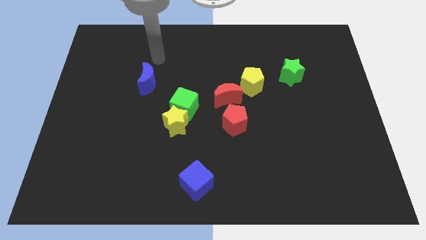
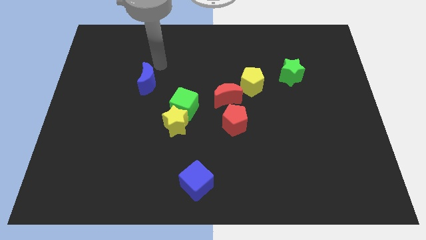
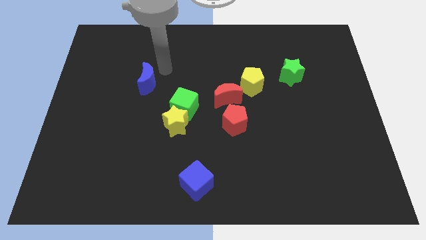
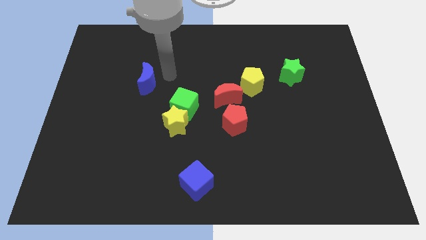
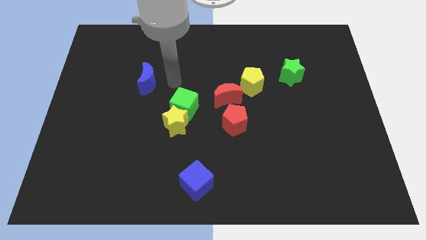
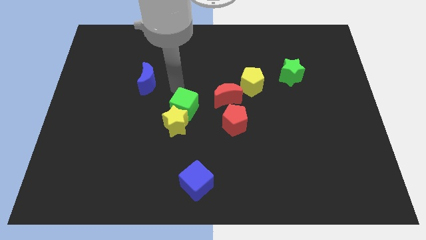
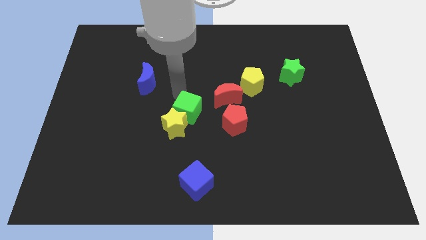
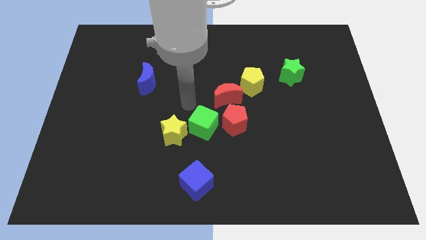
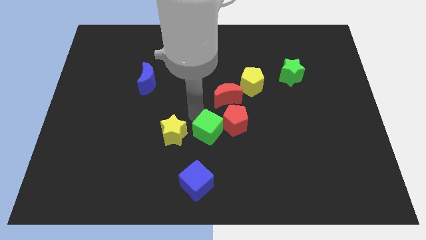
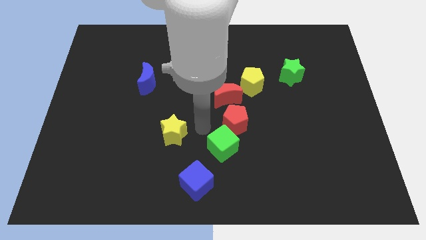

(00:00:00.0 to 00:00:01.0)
move the yellow star away from the green cube

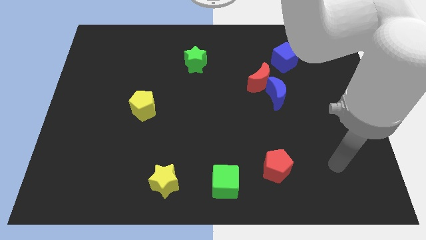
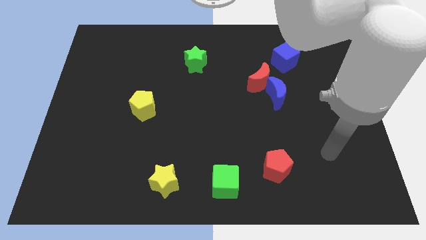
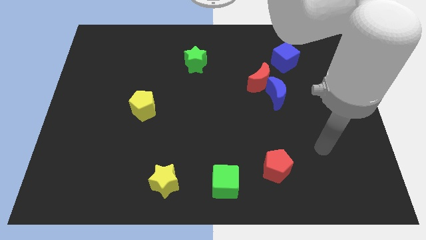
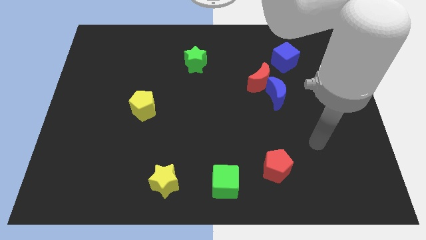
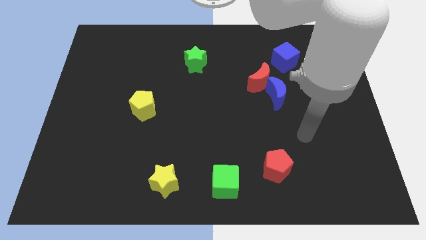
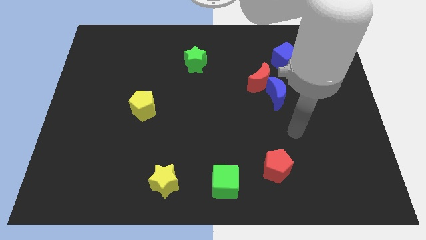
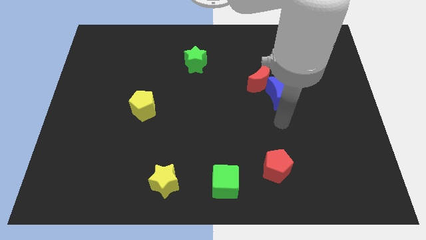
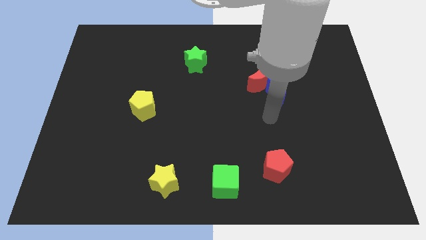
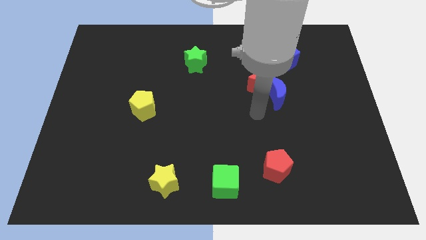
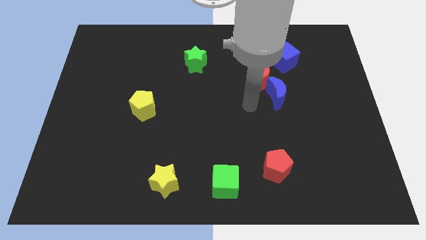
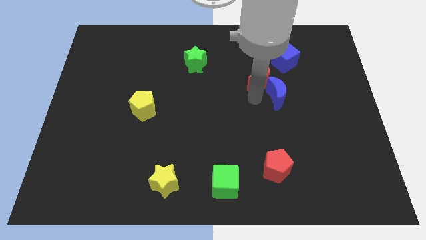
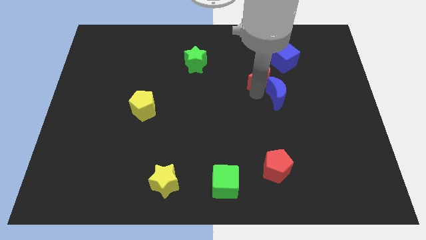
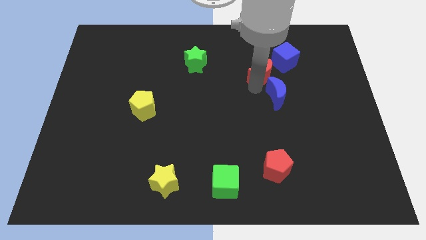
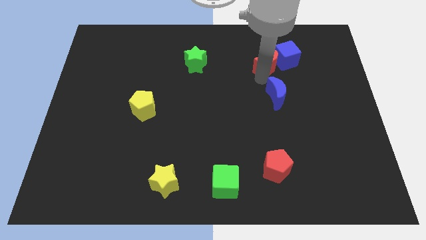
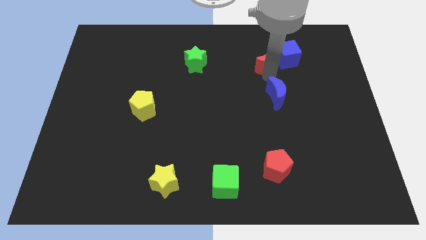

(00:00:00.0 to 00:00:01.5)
pull the blue moon apart from the red moon

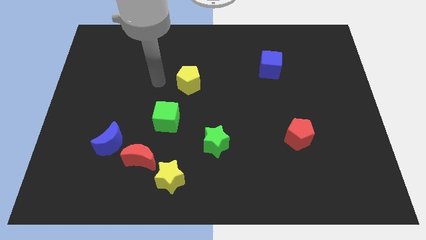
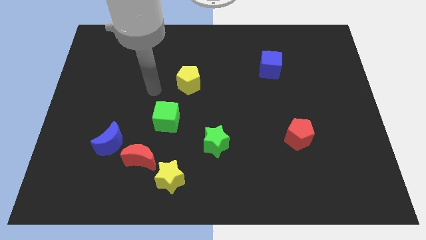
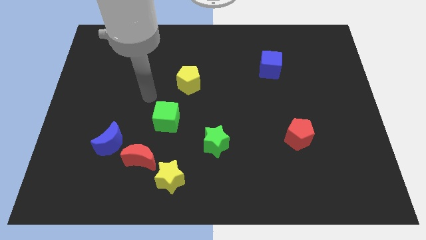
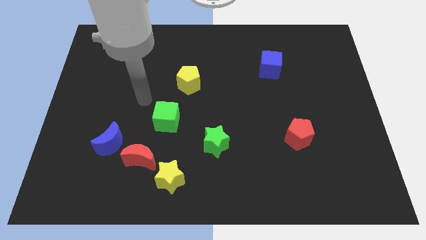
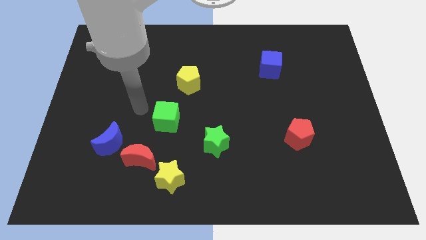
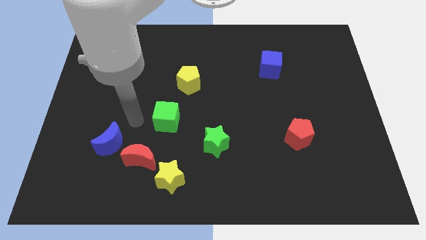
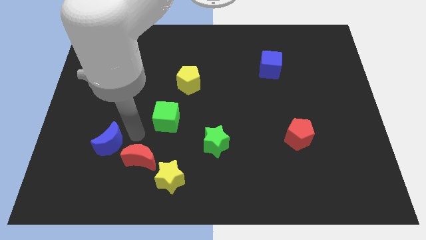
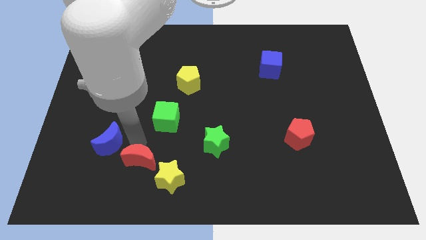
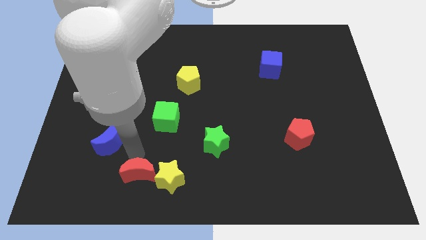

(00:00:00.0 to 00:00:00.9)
separate the blue moon from the red moon

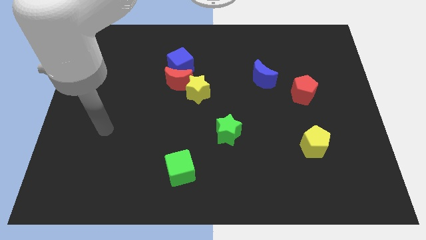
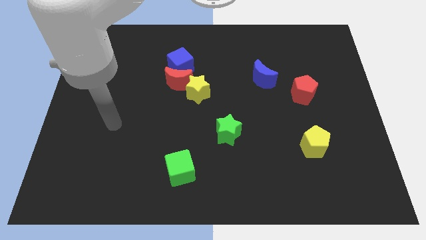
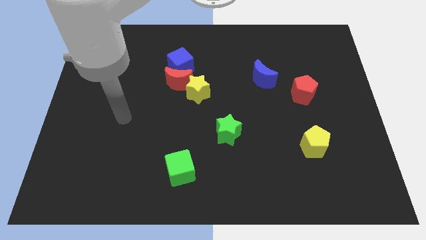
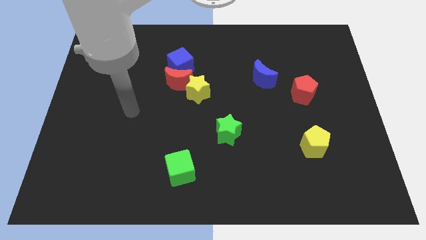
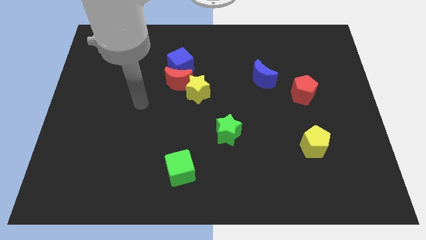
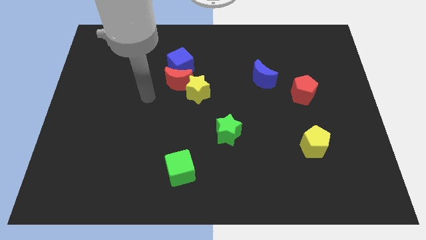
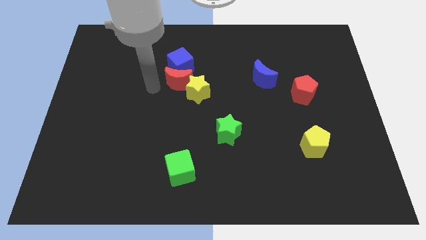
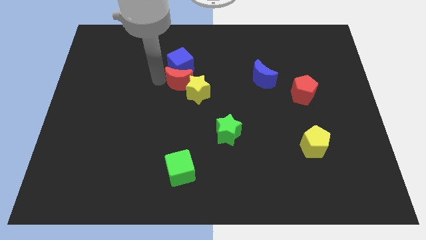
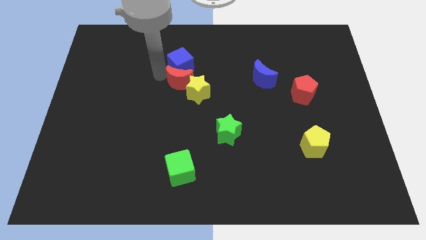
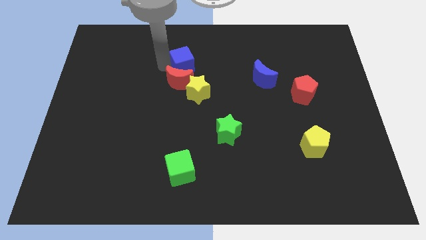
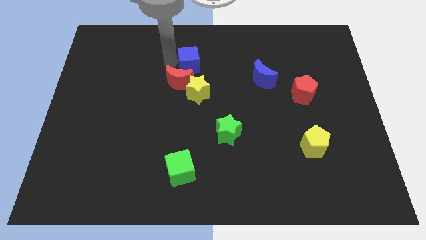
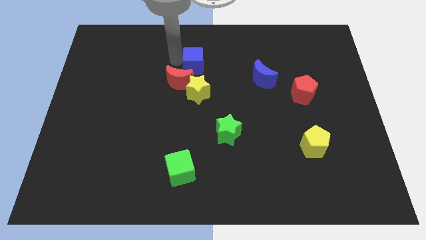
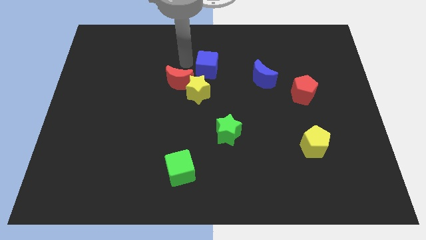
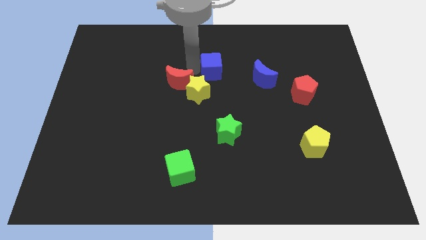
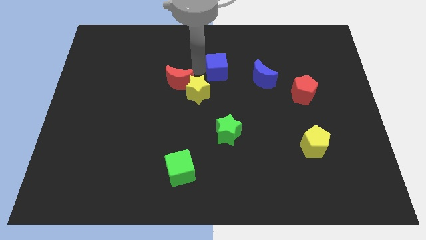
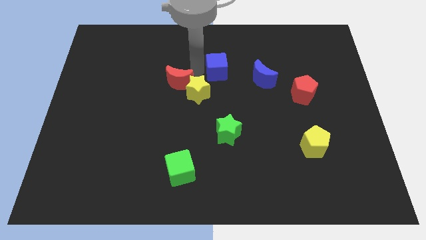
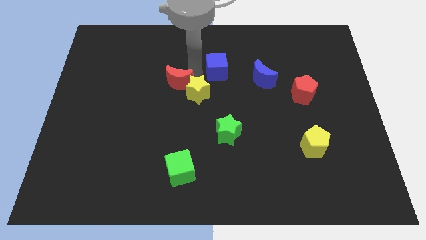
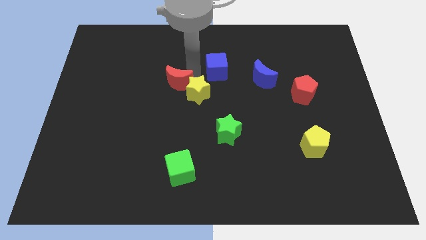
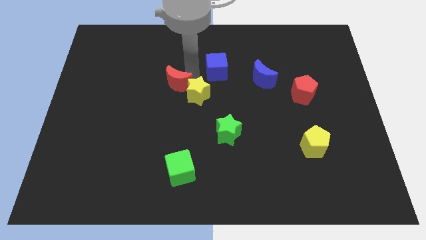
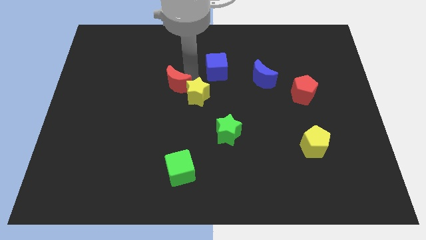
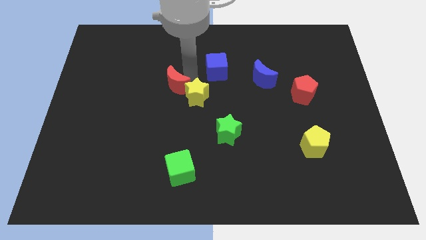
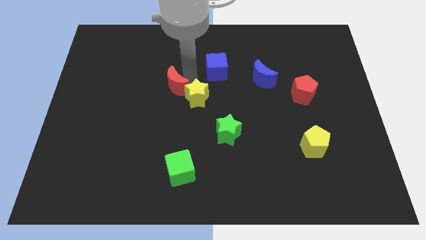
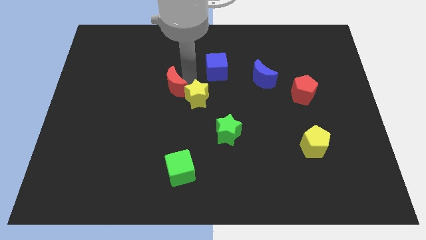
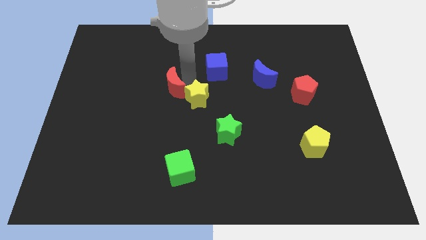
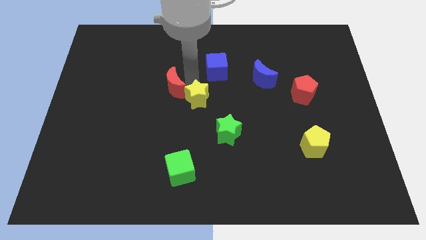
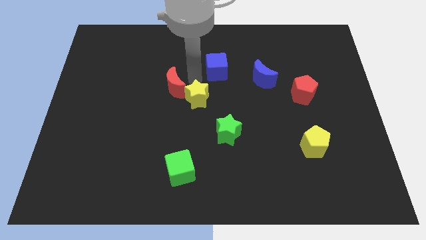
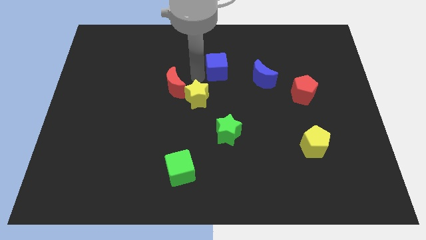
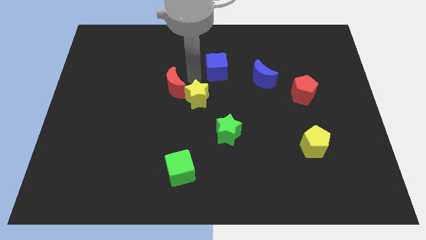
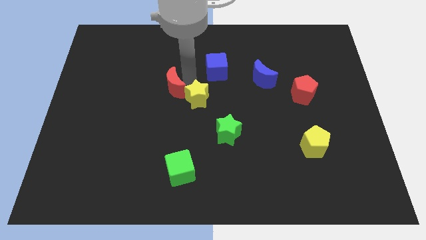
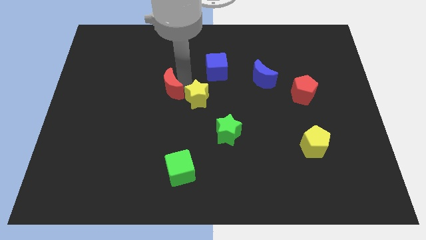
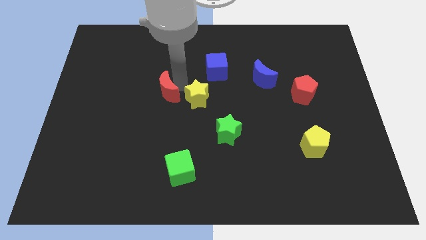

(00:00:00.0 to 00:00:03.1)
separate the red moon from the blue cube and yellow star

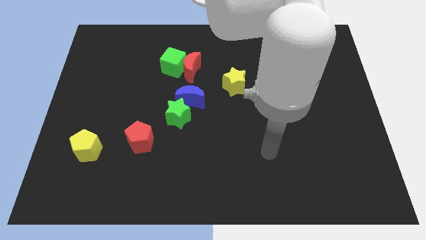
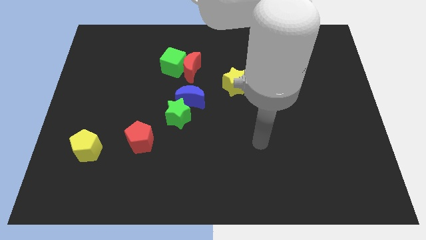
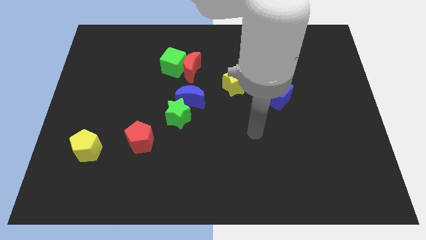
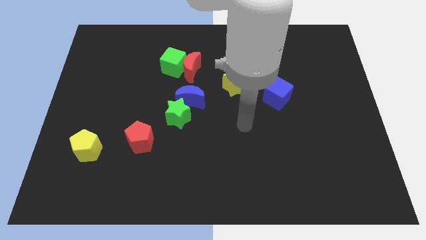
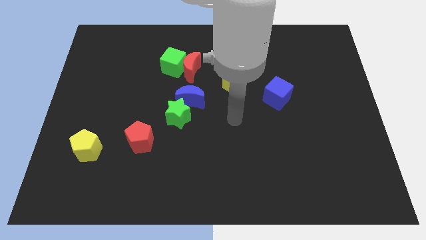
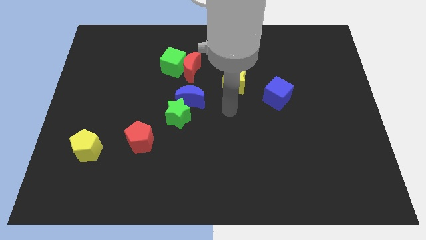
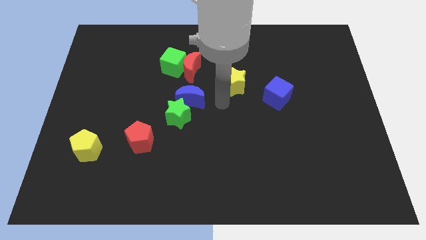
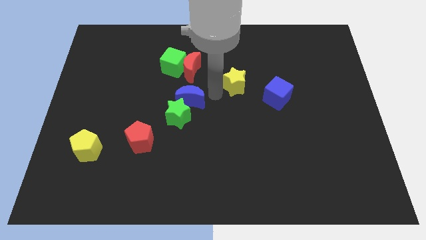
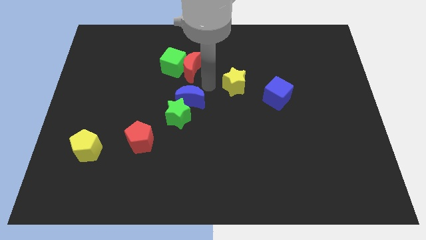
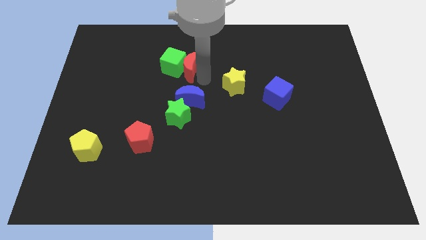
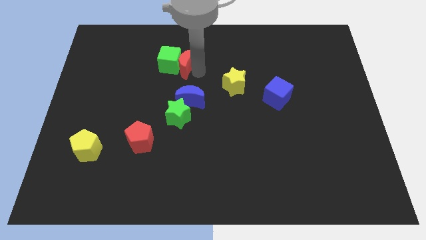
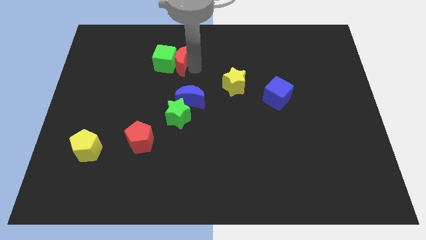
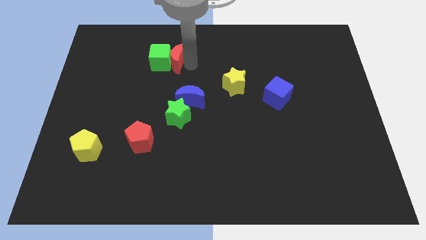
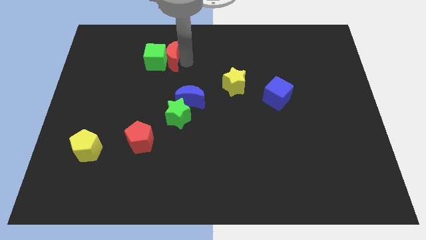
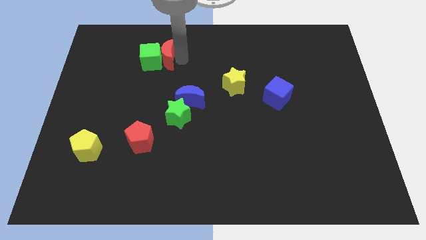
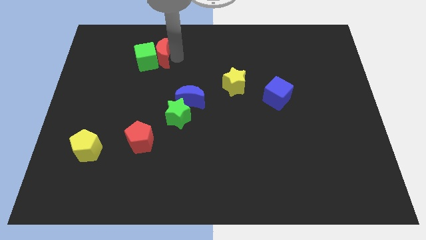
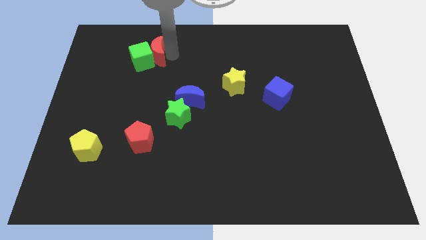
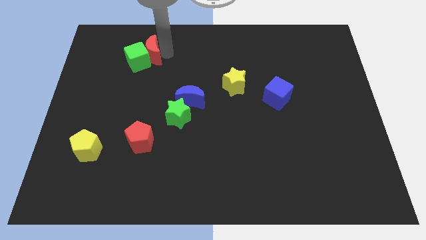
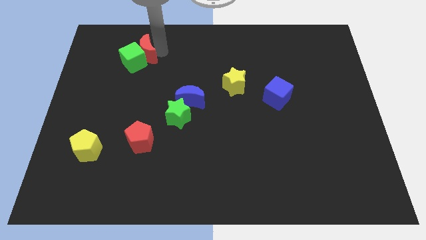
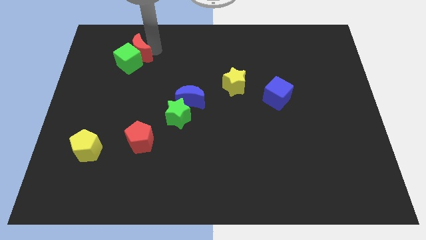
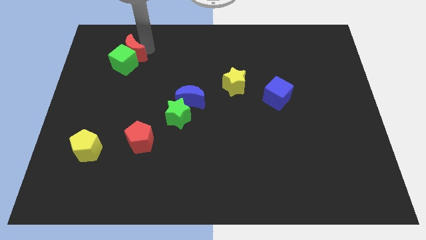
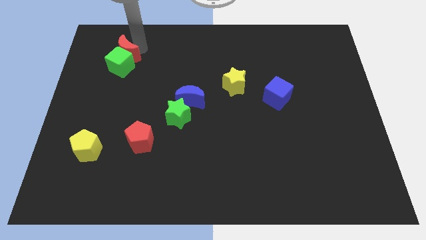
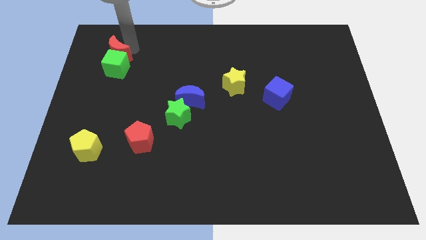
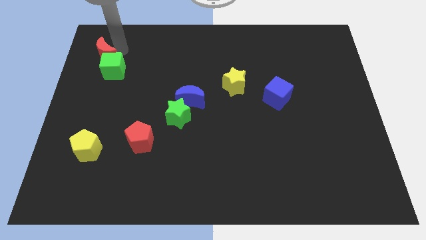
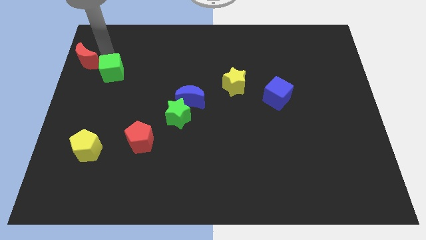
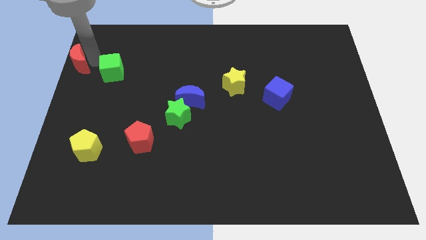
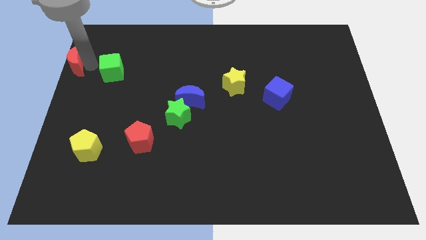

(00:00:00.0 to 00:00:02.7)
separate the green cube from the red moon

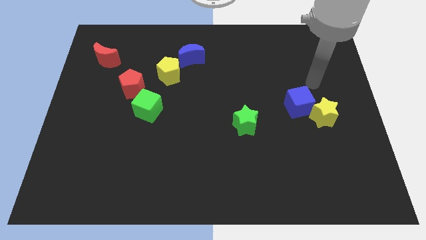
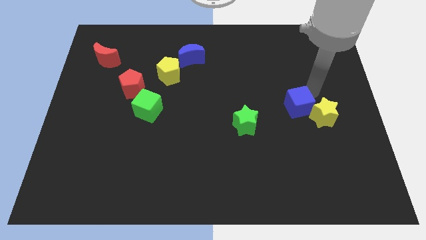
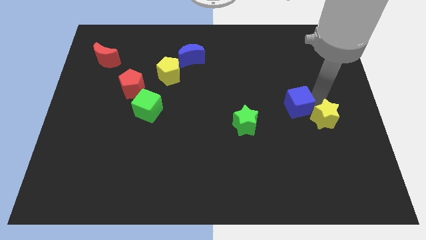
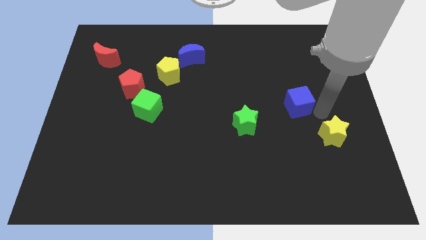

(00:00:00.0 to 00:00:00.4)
separate the blue cube from the yellow star
